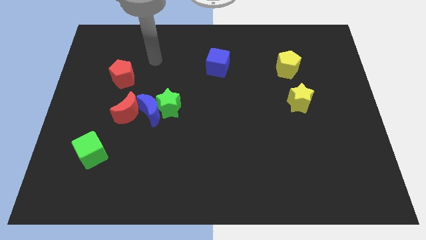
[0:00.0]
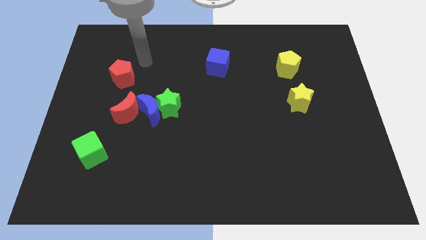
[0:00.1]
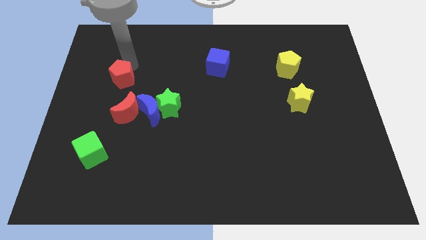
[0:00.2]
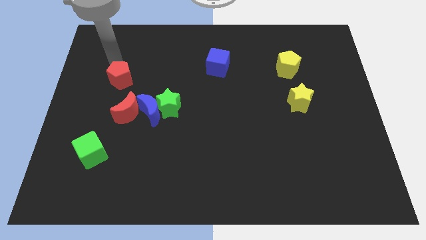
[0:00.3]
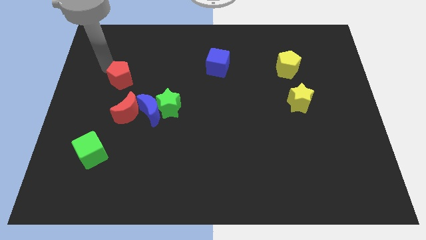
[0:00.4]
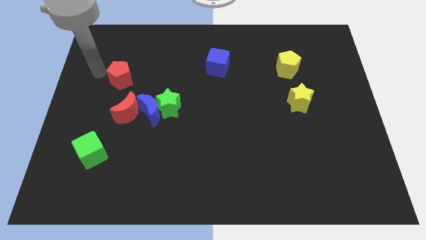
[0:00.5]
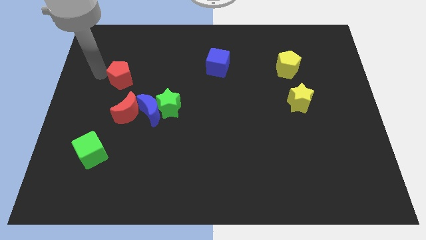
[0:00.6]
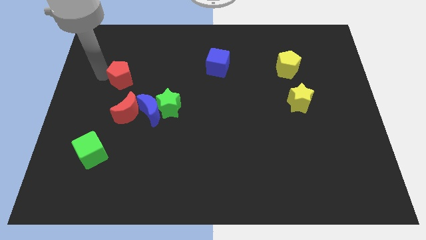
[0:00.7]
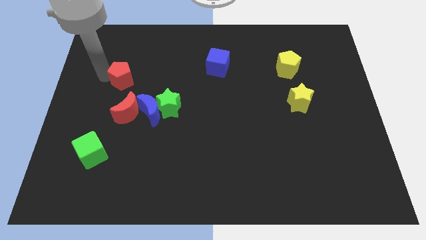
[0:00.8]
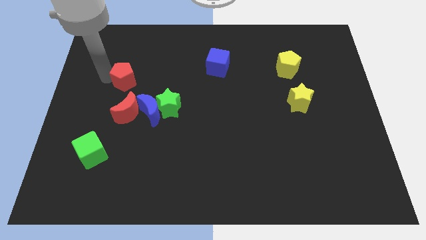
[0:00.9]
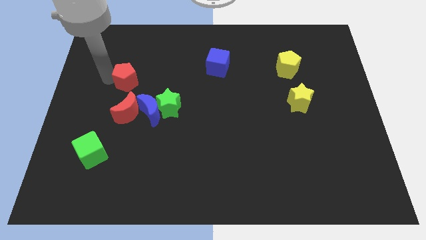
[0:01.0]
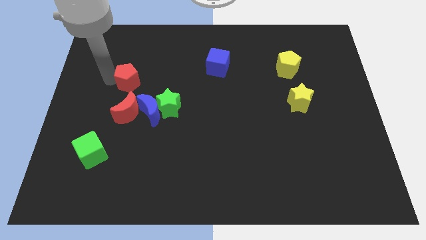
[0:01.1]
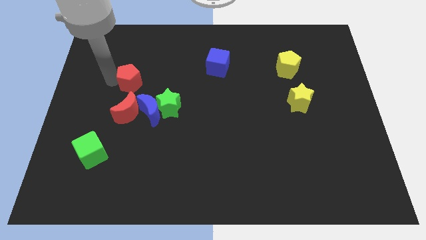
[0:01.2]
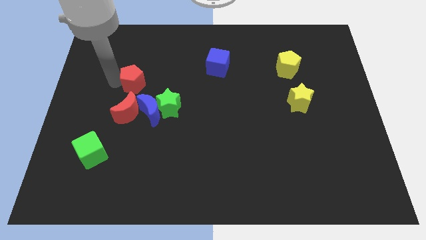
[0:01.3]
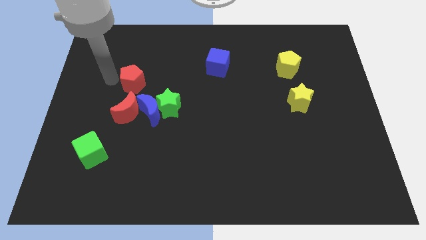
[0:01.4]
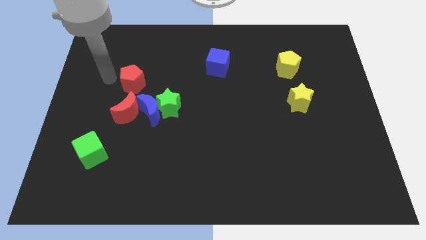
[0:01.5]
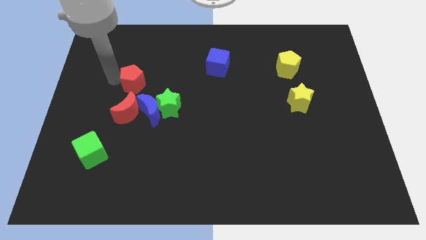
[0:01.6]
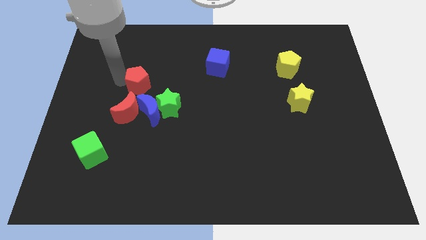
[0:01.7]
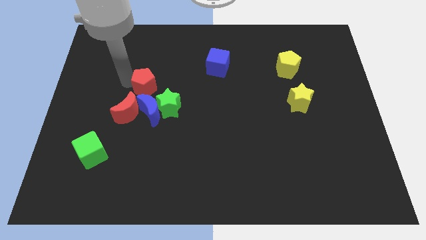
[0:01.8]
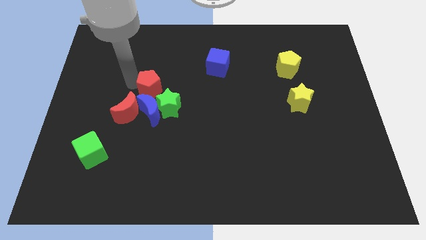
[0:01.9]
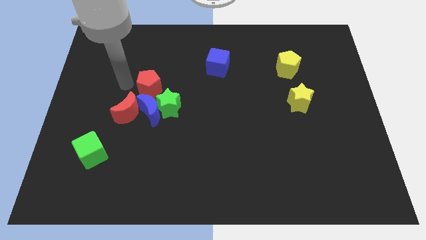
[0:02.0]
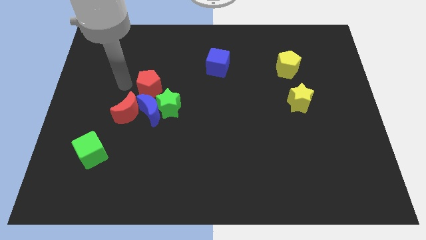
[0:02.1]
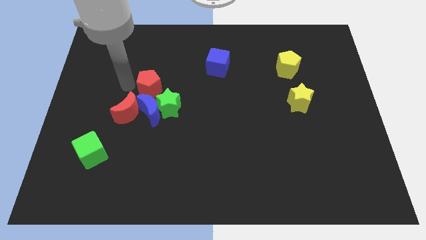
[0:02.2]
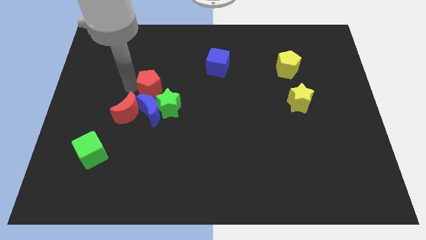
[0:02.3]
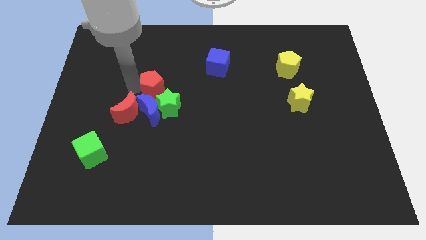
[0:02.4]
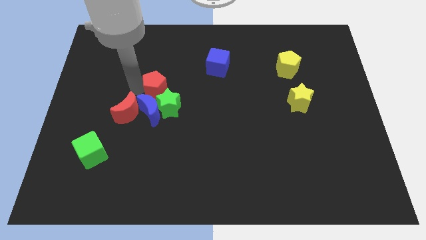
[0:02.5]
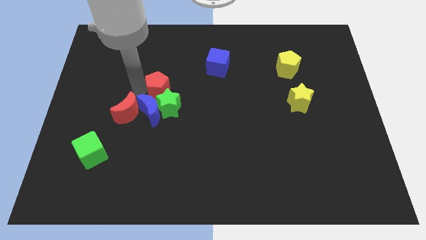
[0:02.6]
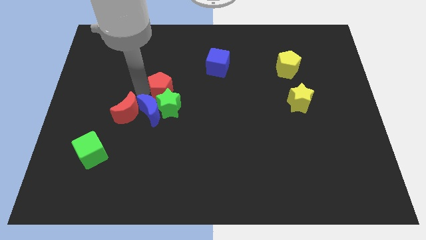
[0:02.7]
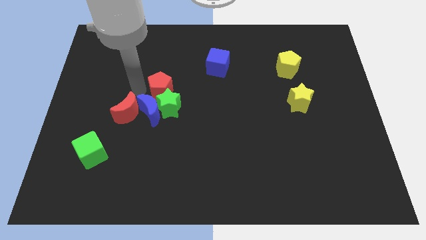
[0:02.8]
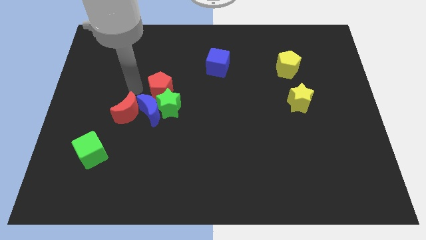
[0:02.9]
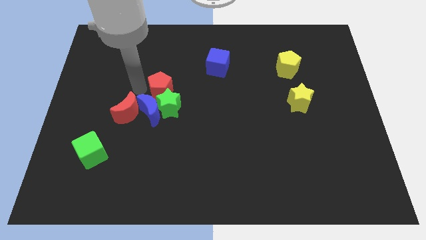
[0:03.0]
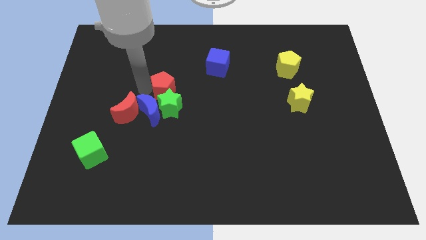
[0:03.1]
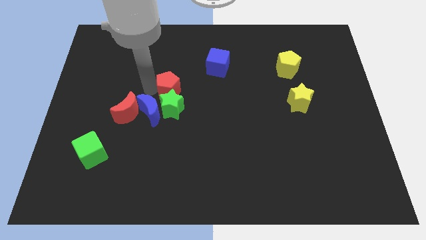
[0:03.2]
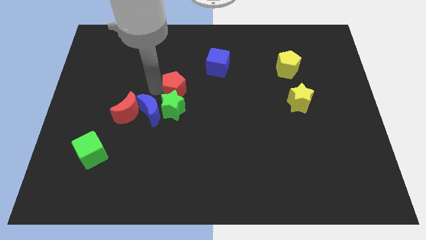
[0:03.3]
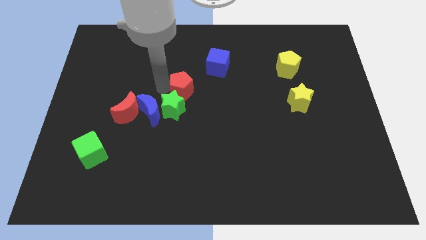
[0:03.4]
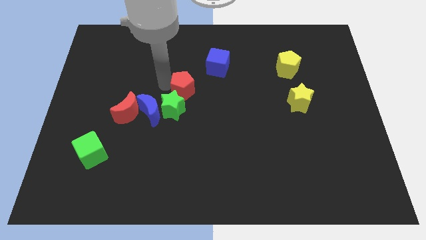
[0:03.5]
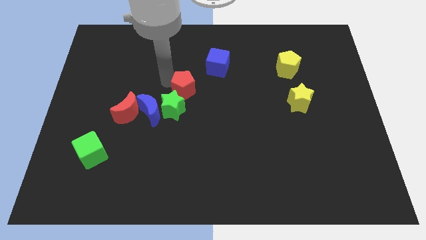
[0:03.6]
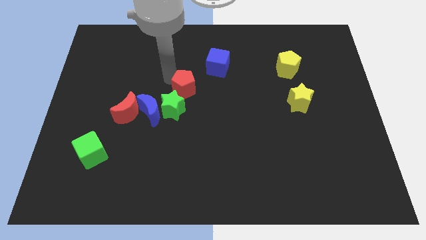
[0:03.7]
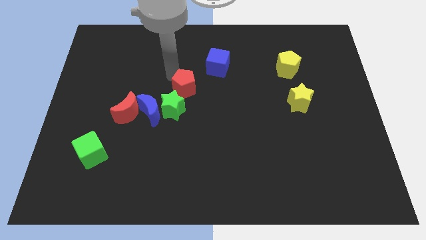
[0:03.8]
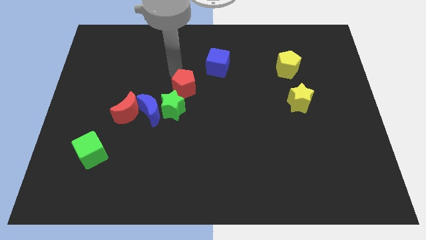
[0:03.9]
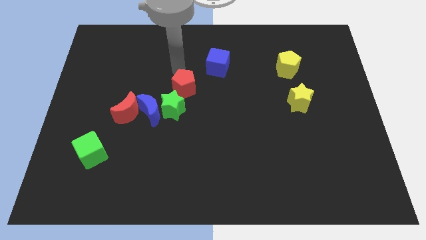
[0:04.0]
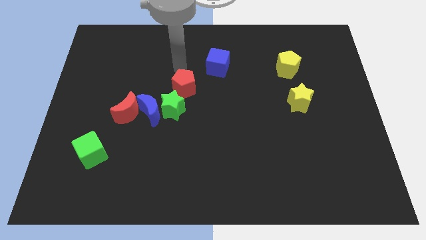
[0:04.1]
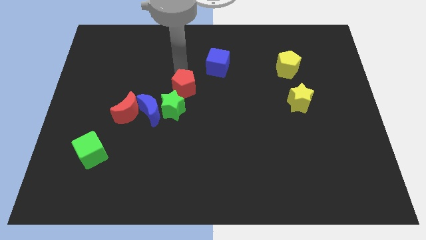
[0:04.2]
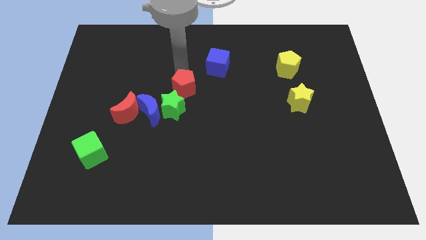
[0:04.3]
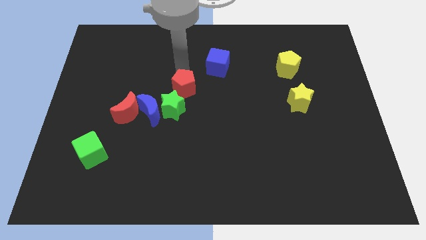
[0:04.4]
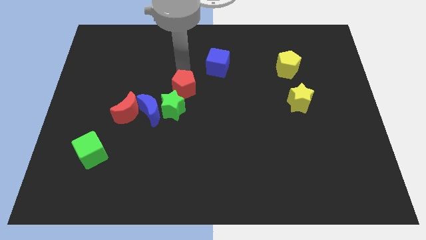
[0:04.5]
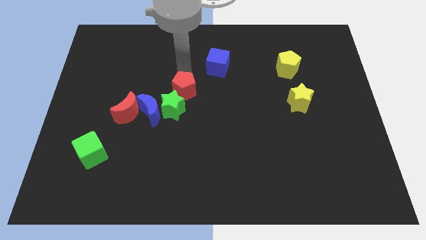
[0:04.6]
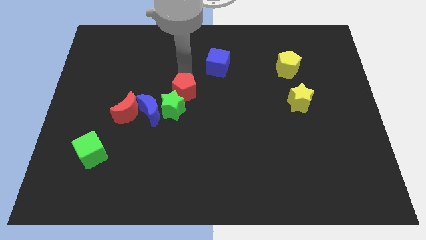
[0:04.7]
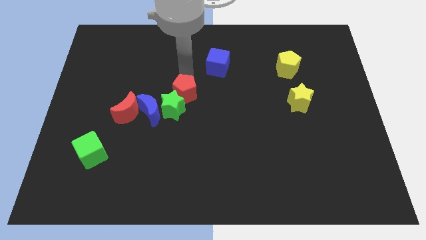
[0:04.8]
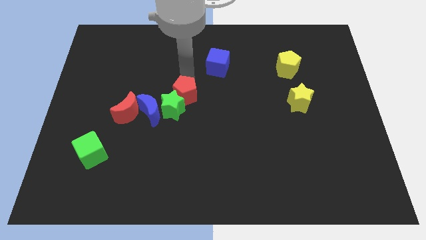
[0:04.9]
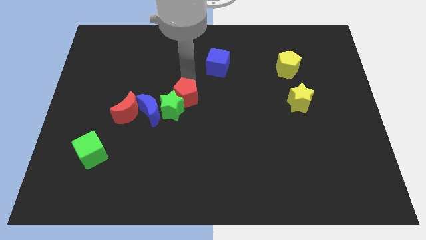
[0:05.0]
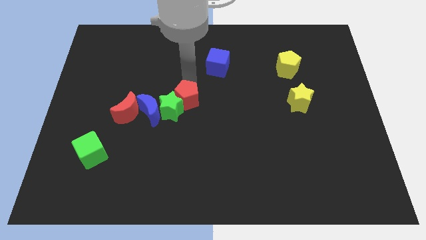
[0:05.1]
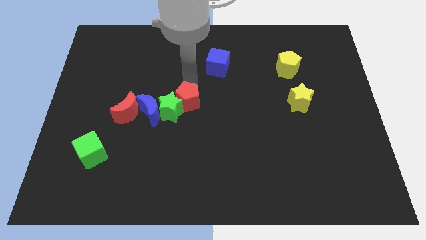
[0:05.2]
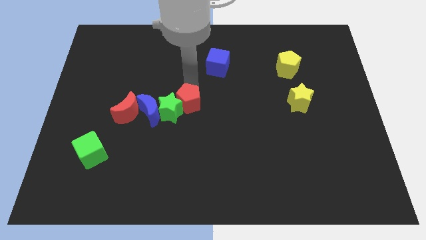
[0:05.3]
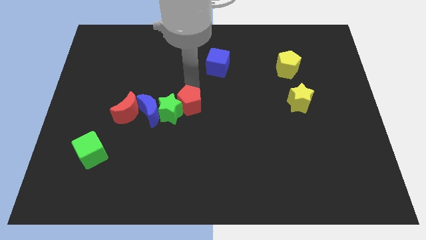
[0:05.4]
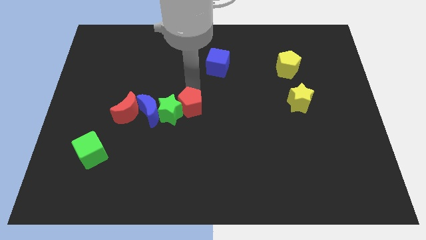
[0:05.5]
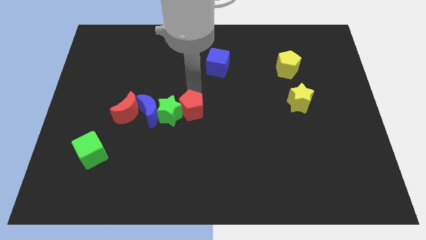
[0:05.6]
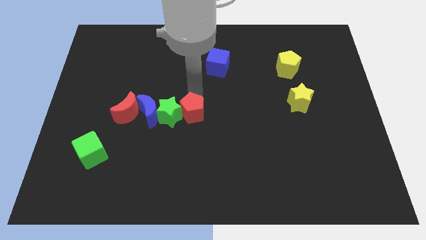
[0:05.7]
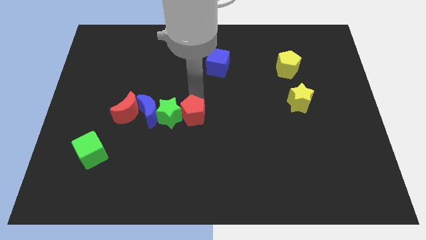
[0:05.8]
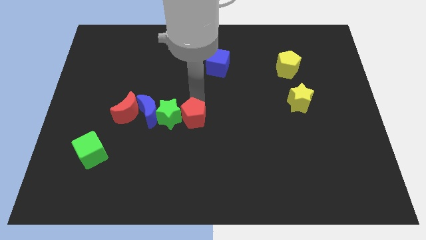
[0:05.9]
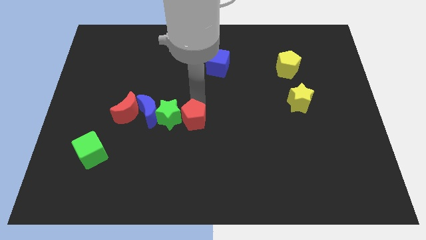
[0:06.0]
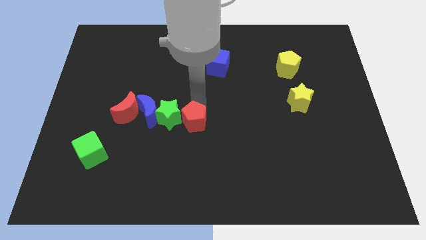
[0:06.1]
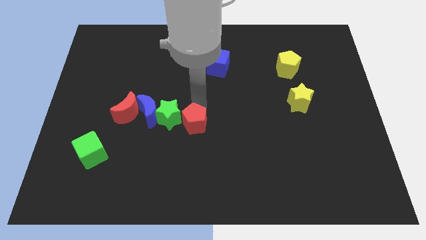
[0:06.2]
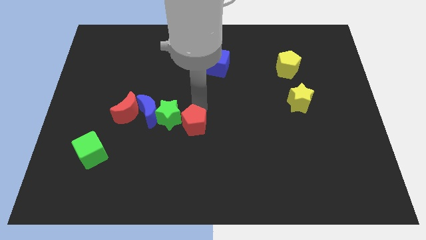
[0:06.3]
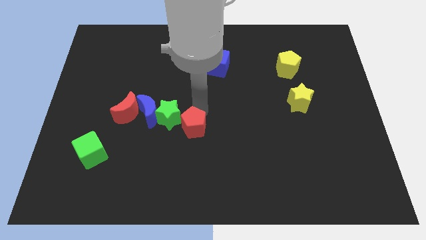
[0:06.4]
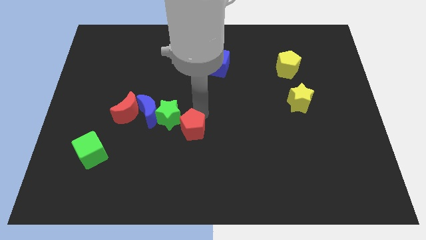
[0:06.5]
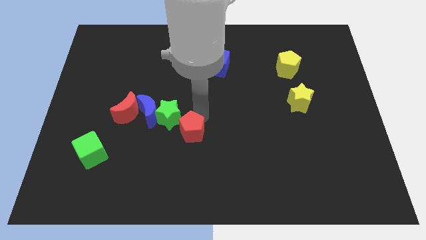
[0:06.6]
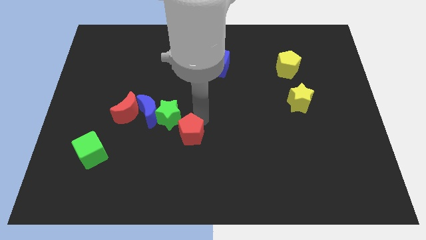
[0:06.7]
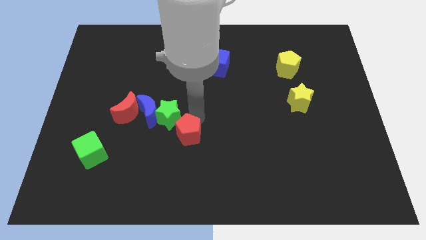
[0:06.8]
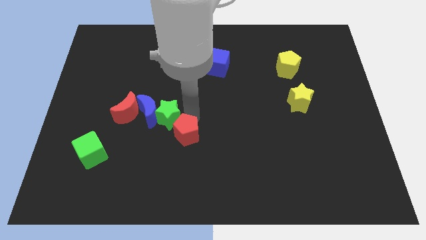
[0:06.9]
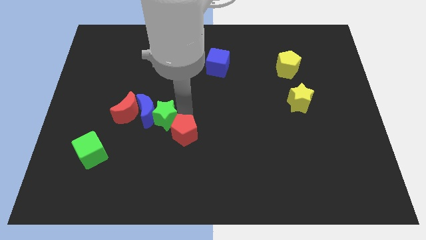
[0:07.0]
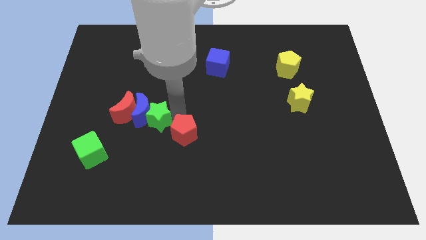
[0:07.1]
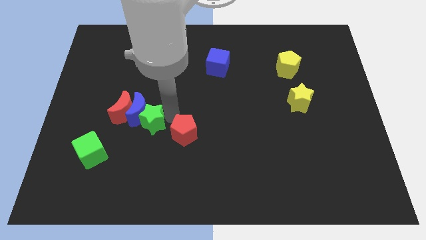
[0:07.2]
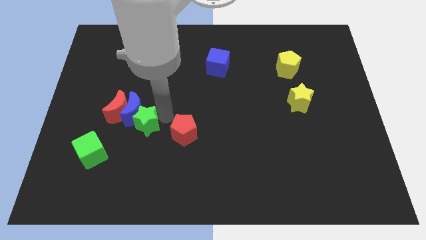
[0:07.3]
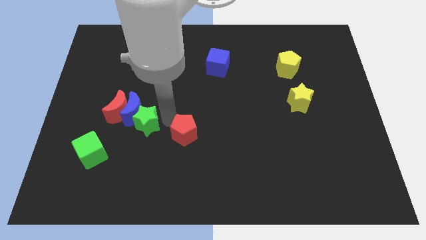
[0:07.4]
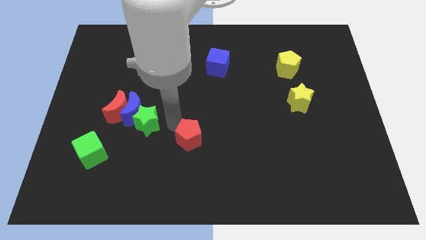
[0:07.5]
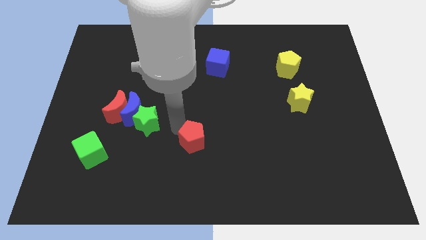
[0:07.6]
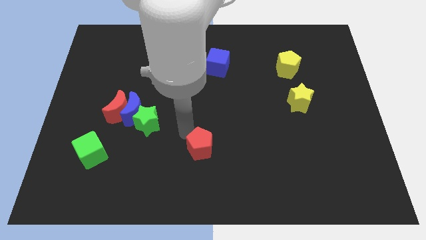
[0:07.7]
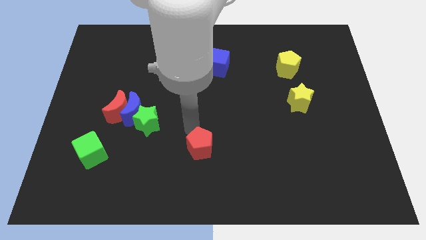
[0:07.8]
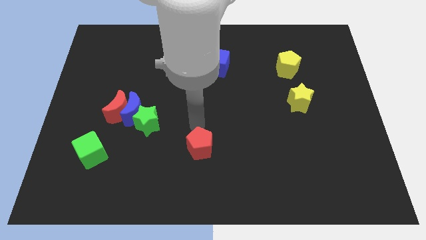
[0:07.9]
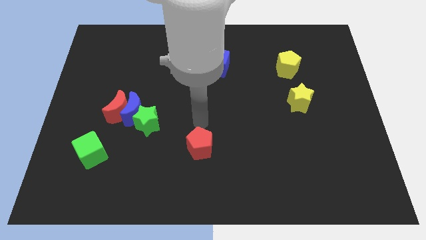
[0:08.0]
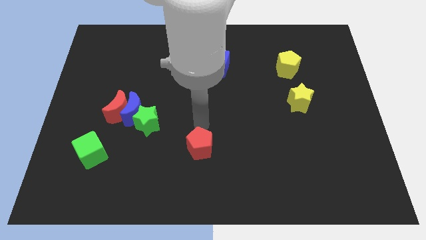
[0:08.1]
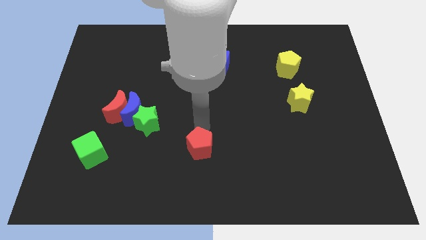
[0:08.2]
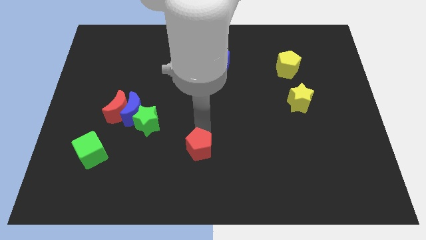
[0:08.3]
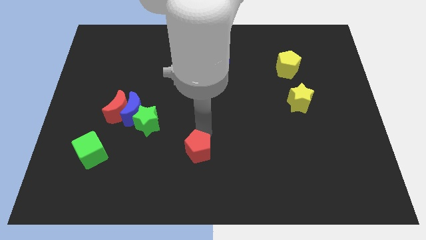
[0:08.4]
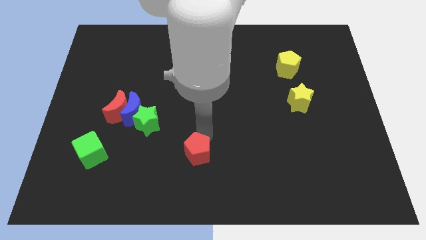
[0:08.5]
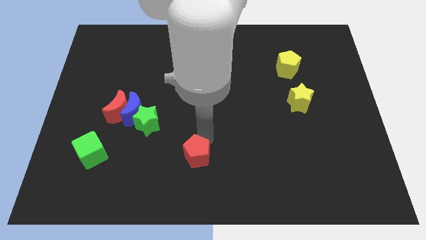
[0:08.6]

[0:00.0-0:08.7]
move the red pentagon to the bottom
